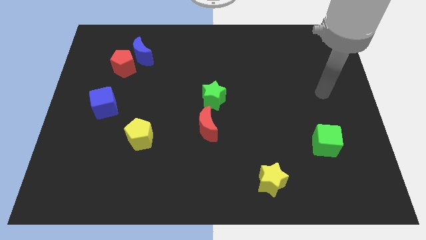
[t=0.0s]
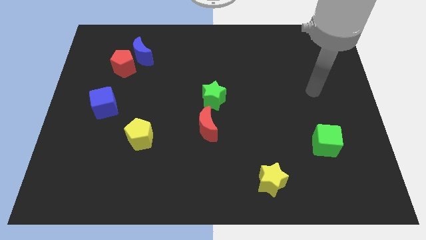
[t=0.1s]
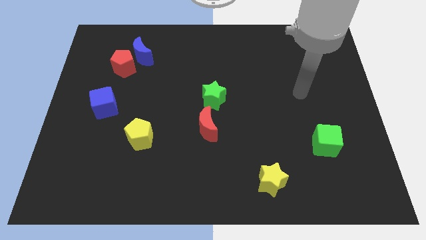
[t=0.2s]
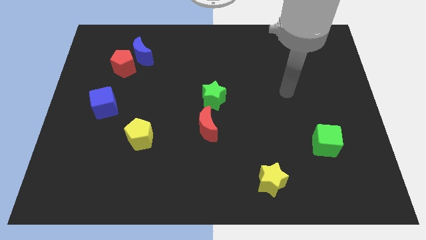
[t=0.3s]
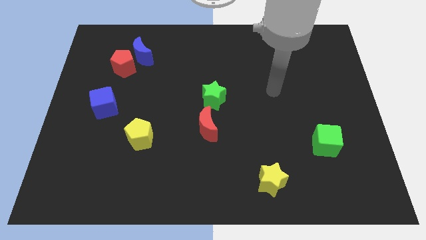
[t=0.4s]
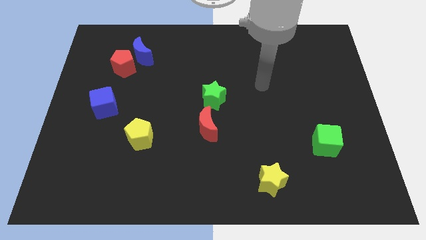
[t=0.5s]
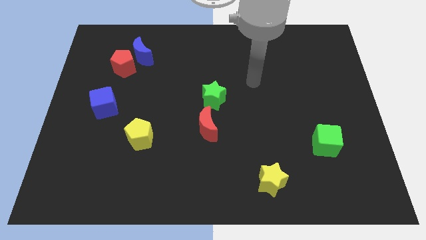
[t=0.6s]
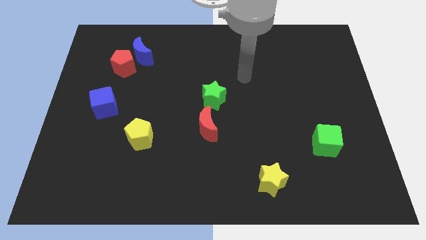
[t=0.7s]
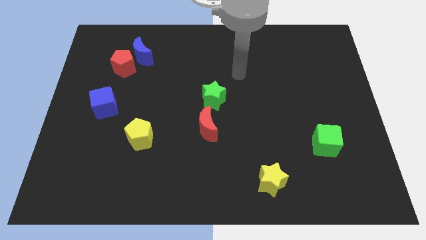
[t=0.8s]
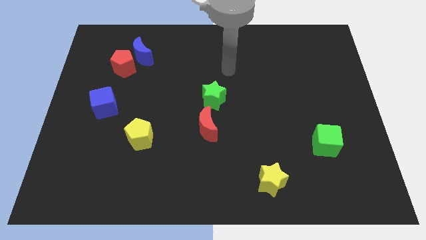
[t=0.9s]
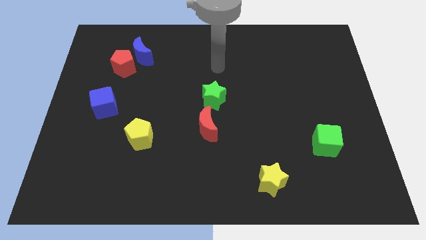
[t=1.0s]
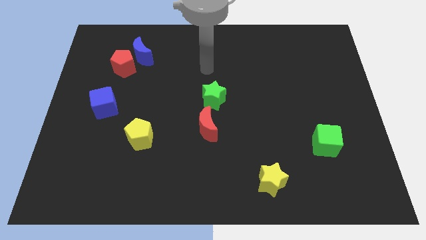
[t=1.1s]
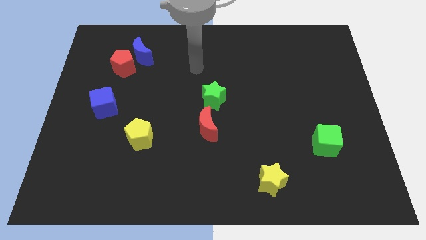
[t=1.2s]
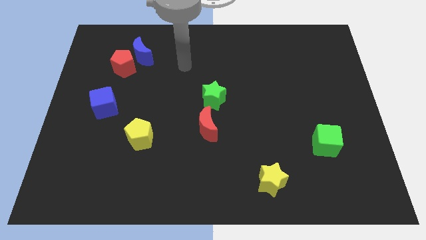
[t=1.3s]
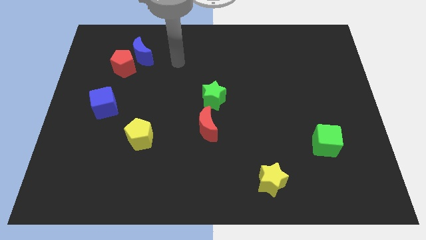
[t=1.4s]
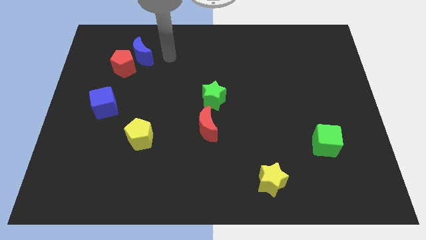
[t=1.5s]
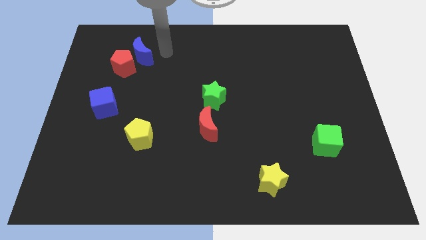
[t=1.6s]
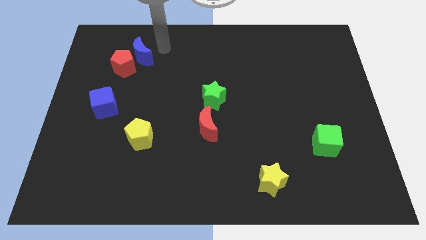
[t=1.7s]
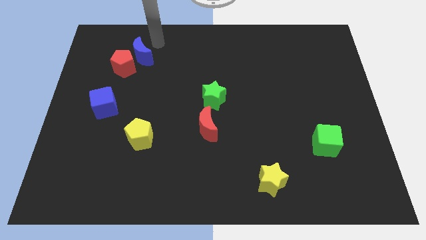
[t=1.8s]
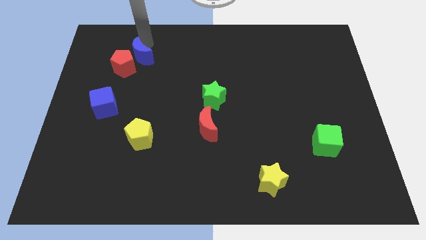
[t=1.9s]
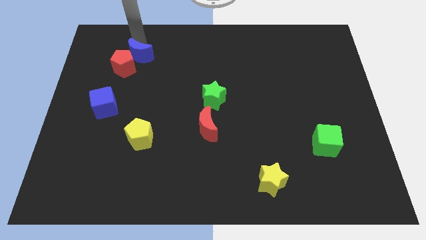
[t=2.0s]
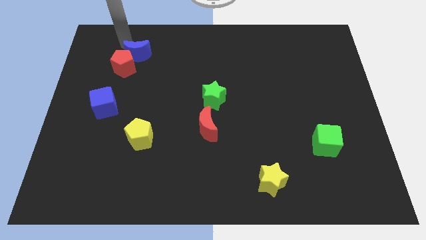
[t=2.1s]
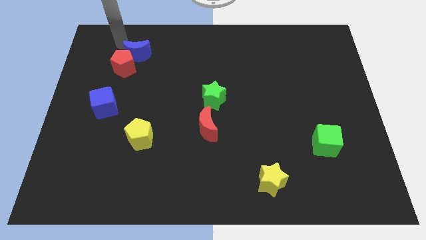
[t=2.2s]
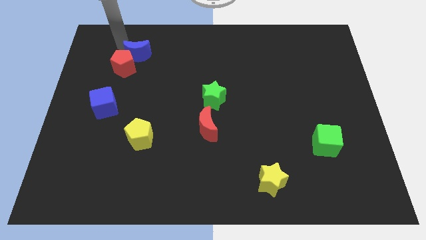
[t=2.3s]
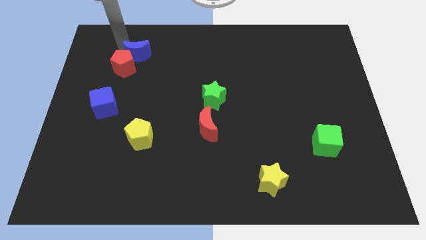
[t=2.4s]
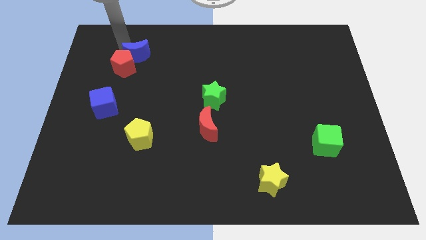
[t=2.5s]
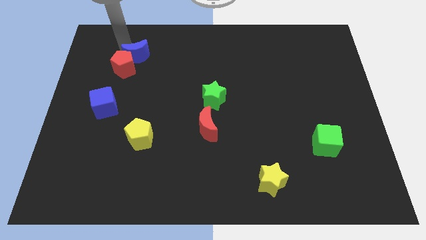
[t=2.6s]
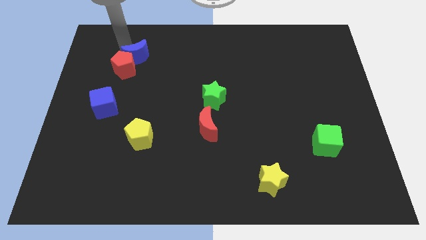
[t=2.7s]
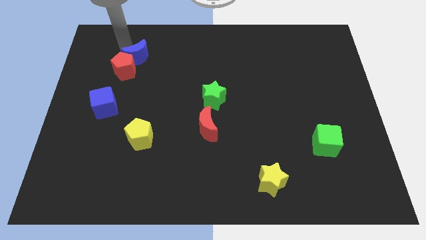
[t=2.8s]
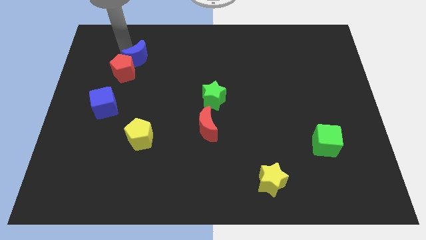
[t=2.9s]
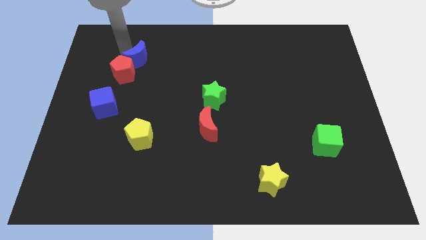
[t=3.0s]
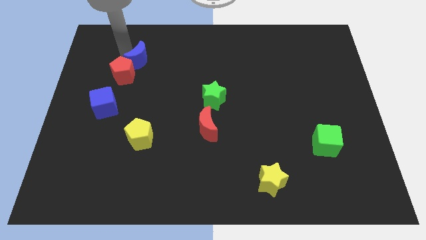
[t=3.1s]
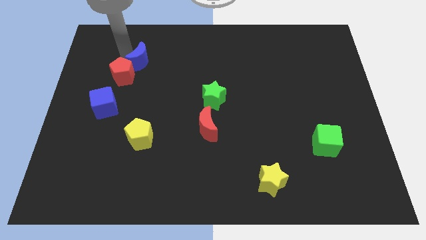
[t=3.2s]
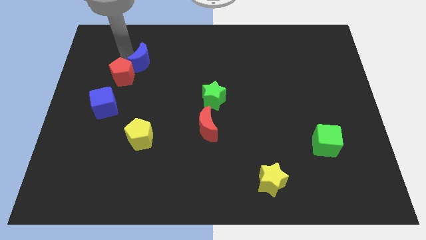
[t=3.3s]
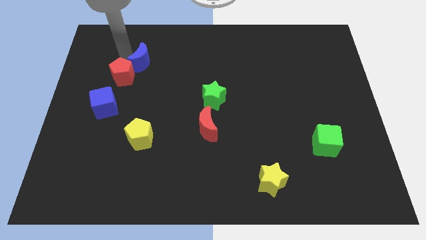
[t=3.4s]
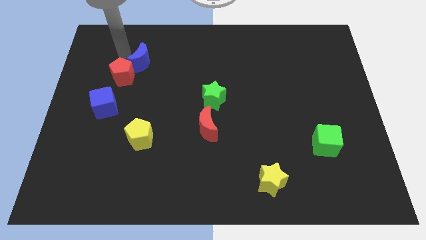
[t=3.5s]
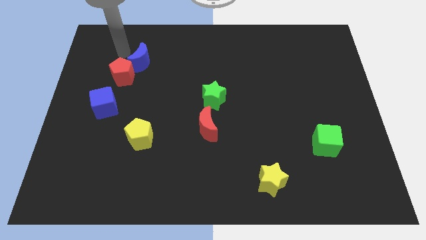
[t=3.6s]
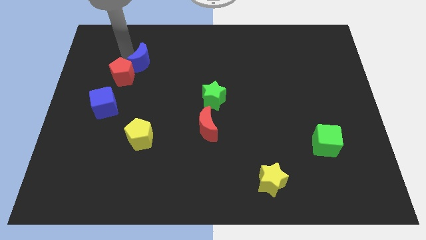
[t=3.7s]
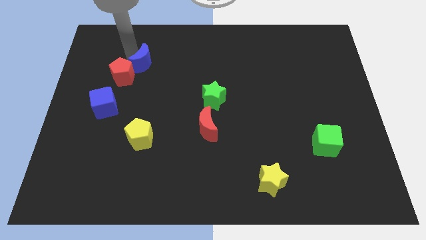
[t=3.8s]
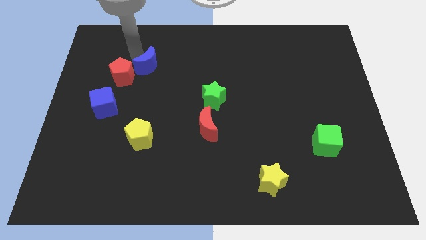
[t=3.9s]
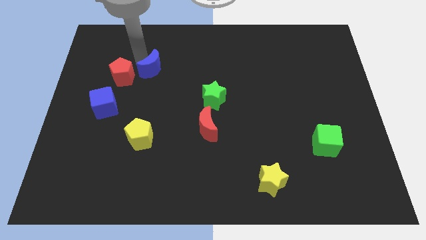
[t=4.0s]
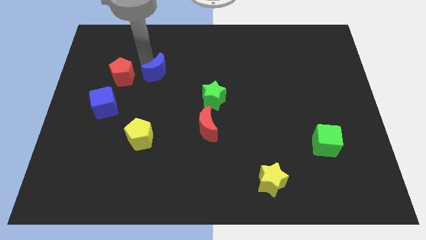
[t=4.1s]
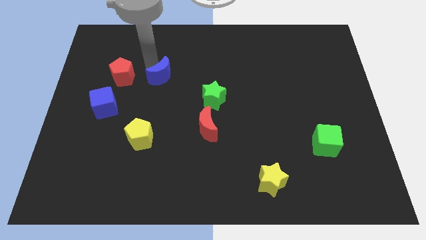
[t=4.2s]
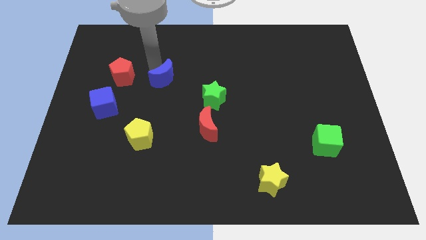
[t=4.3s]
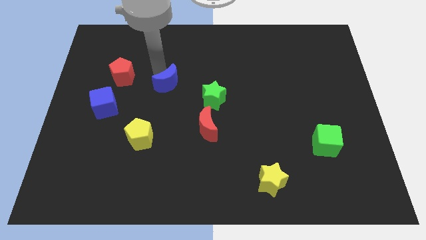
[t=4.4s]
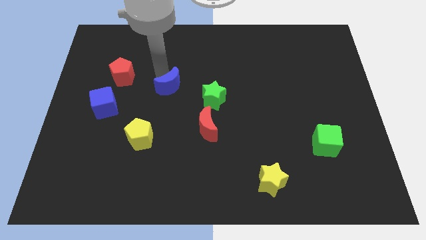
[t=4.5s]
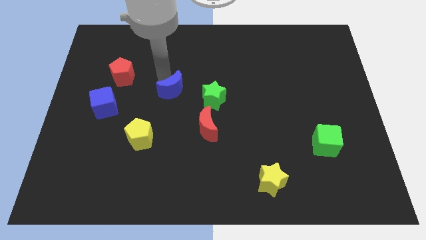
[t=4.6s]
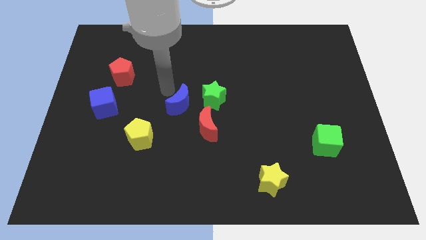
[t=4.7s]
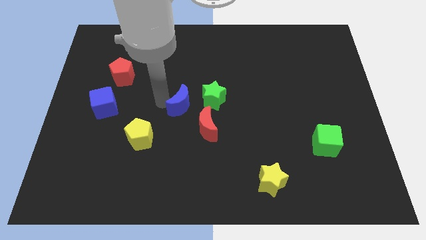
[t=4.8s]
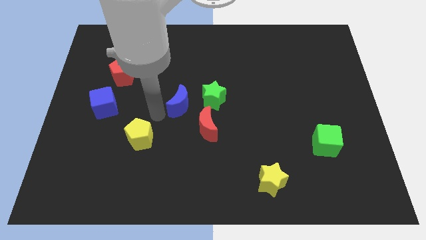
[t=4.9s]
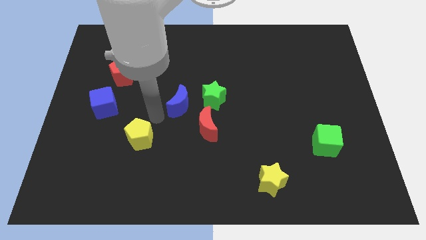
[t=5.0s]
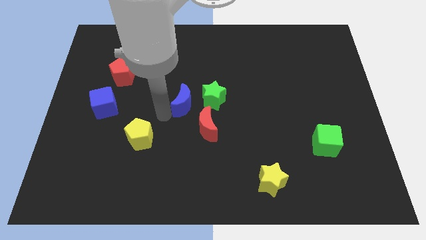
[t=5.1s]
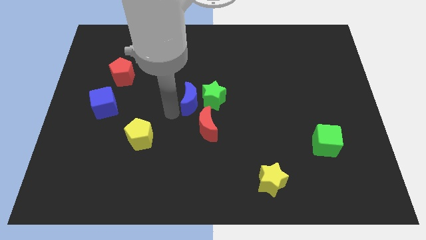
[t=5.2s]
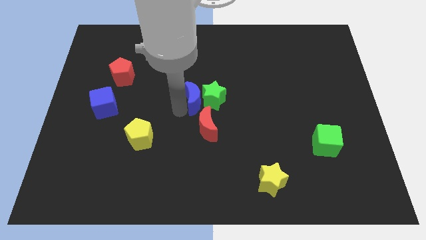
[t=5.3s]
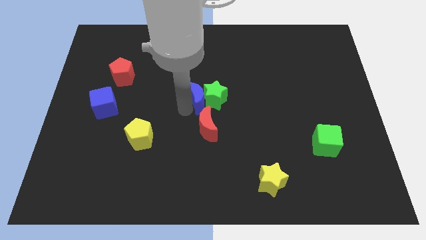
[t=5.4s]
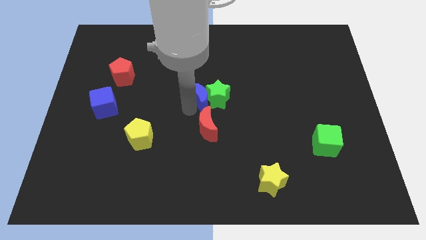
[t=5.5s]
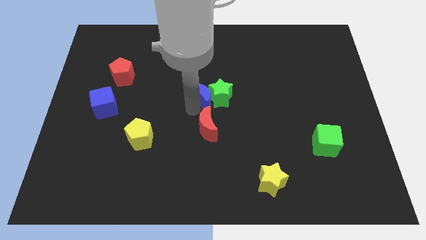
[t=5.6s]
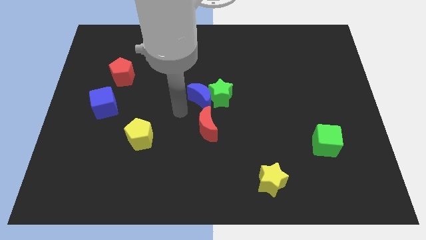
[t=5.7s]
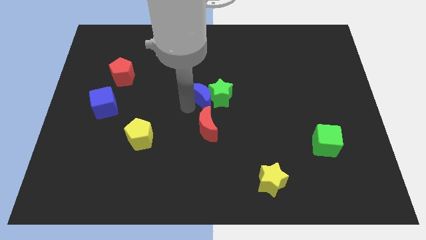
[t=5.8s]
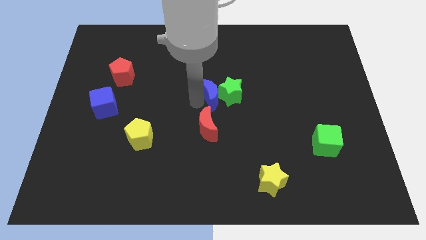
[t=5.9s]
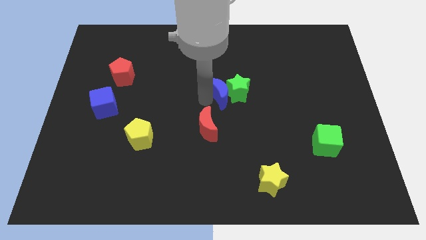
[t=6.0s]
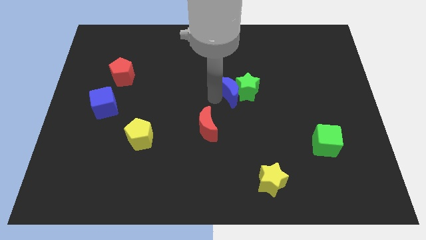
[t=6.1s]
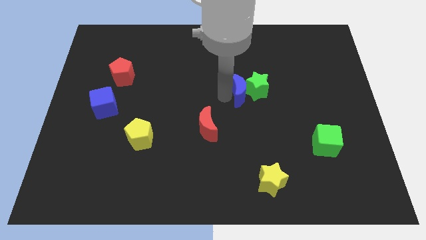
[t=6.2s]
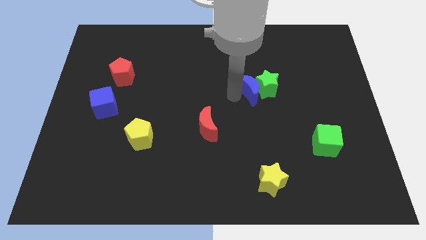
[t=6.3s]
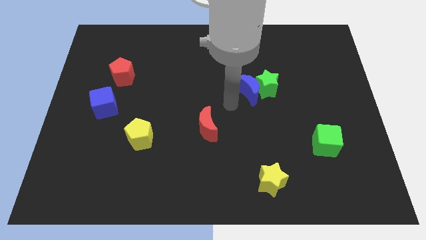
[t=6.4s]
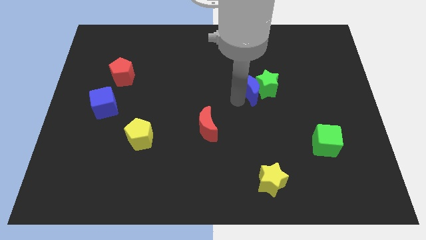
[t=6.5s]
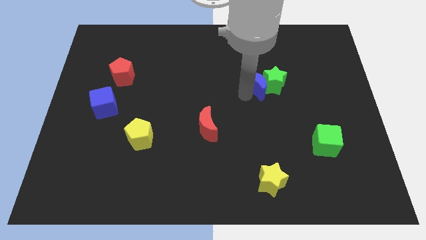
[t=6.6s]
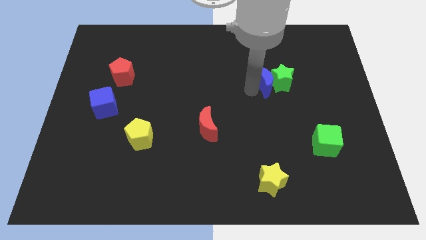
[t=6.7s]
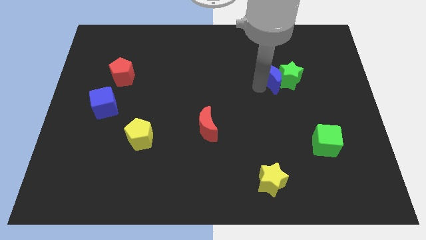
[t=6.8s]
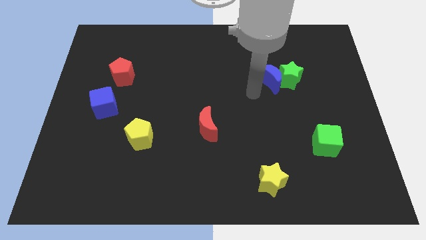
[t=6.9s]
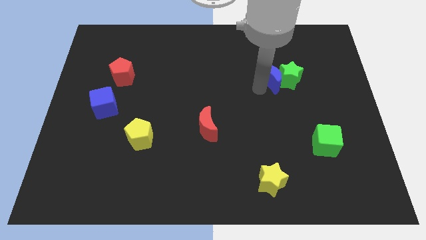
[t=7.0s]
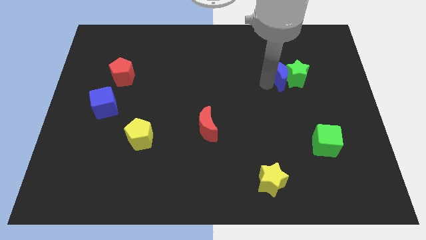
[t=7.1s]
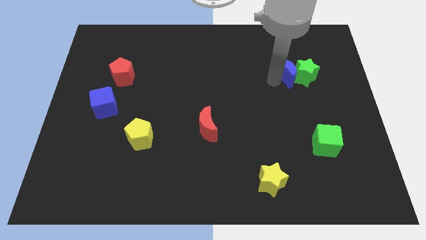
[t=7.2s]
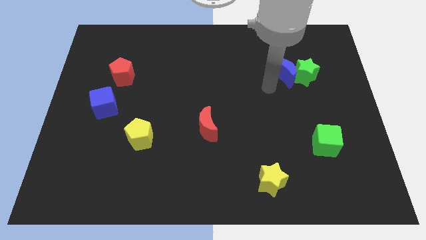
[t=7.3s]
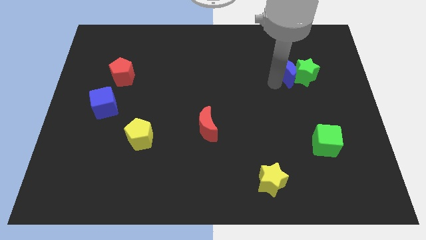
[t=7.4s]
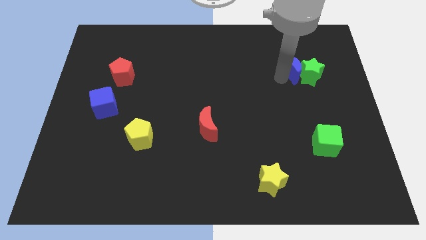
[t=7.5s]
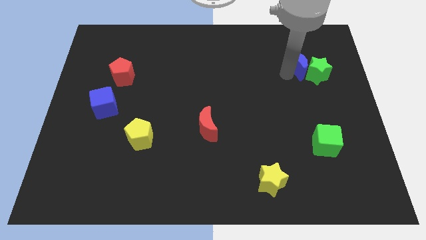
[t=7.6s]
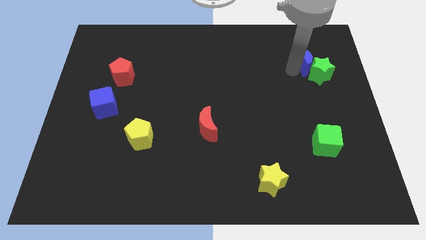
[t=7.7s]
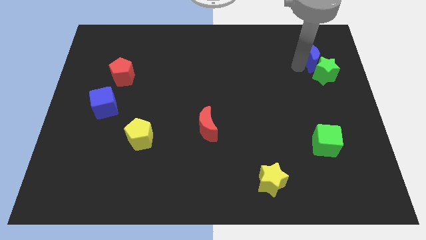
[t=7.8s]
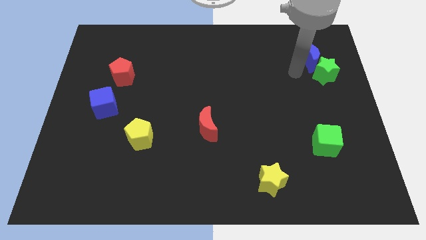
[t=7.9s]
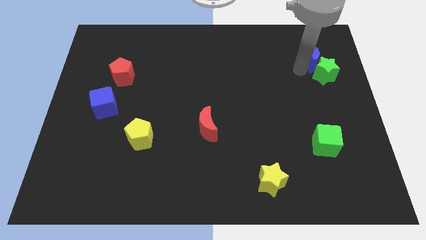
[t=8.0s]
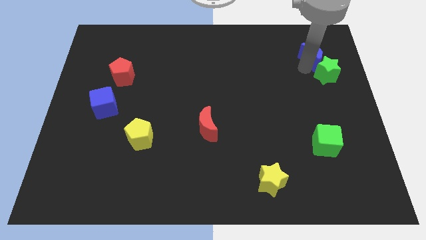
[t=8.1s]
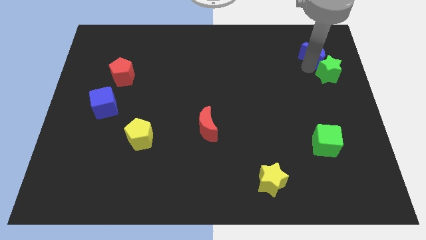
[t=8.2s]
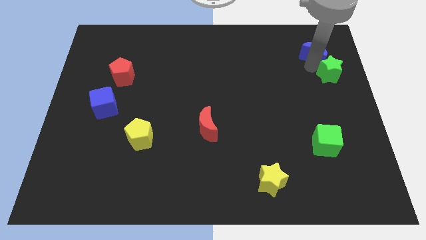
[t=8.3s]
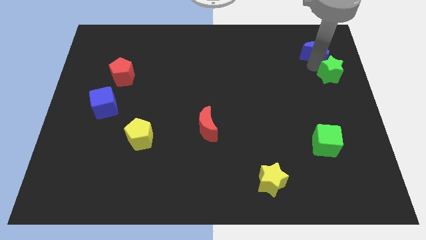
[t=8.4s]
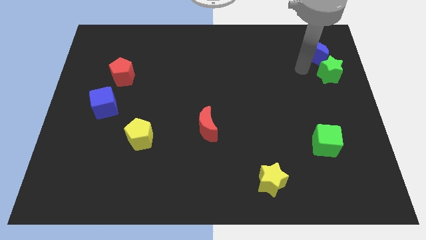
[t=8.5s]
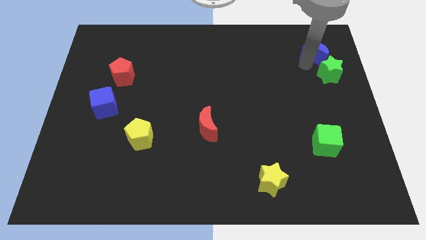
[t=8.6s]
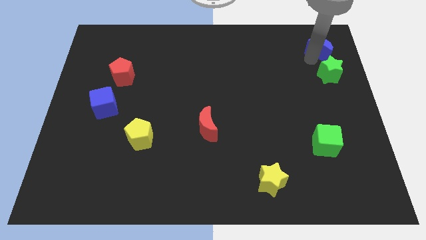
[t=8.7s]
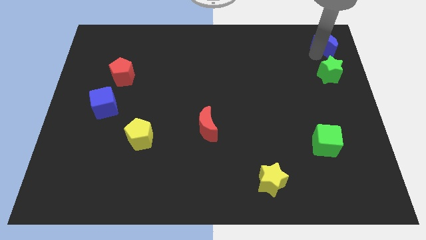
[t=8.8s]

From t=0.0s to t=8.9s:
put the blue moon to the top right
